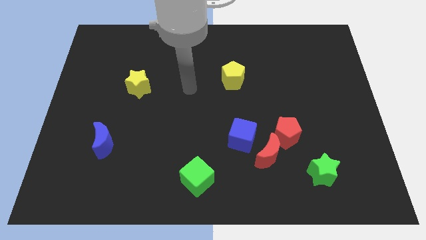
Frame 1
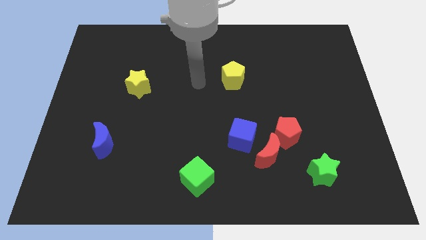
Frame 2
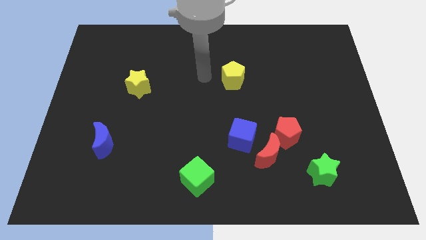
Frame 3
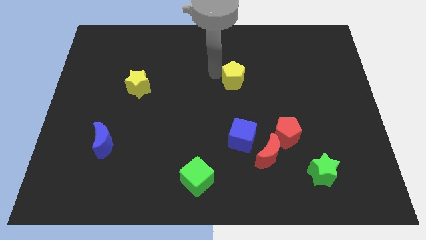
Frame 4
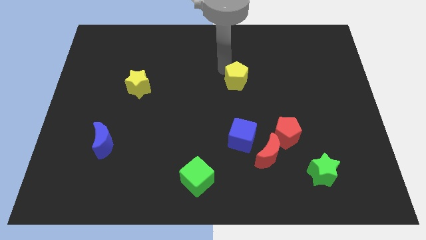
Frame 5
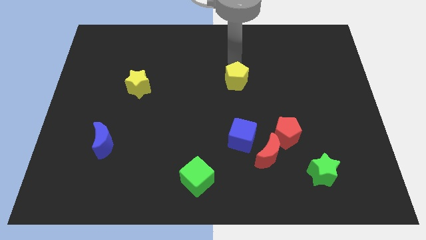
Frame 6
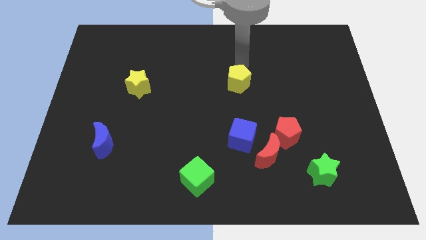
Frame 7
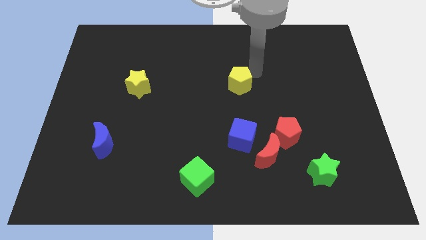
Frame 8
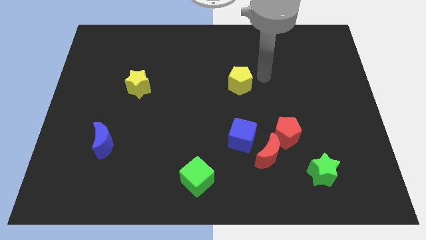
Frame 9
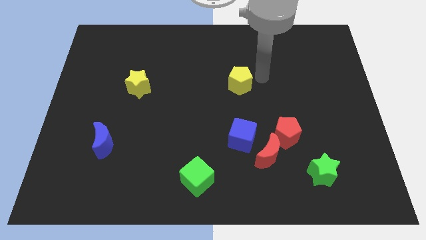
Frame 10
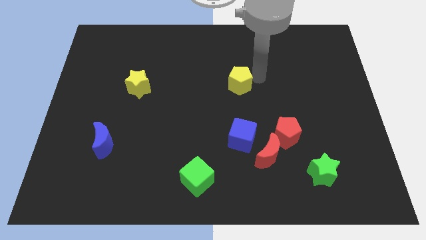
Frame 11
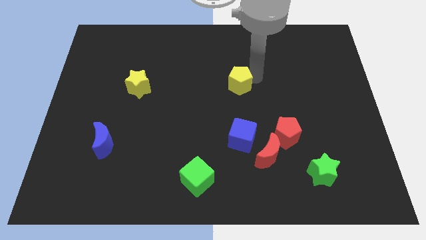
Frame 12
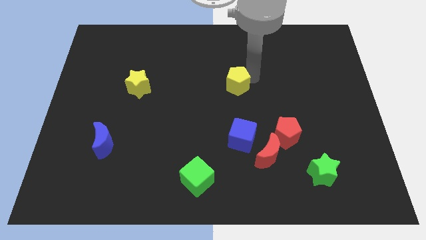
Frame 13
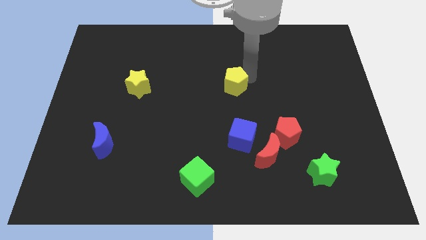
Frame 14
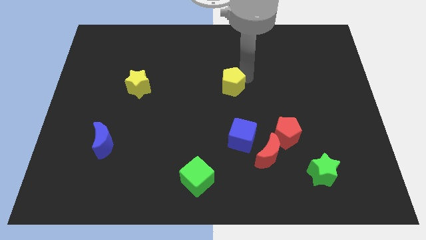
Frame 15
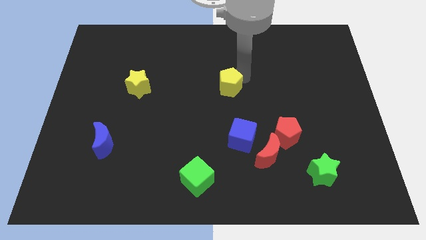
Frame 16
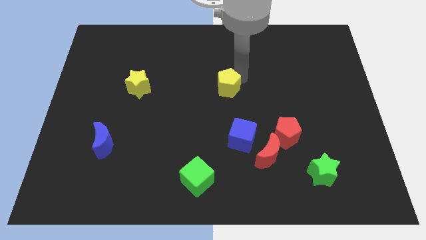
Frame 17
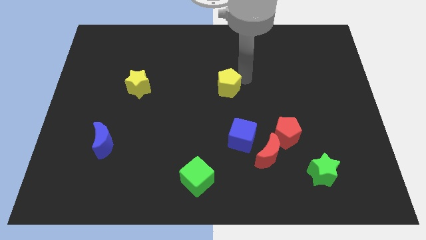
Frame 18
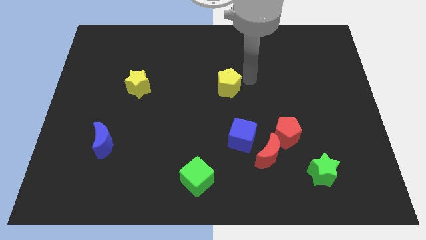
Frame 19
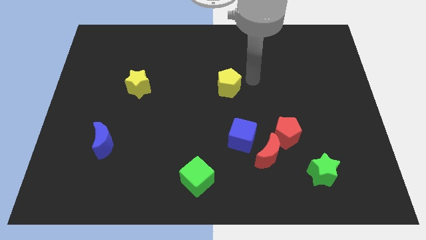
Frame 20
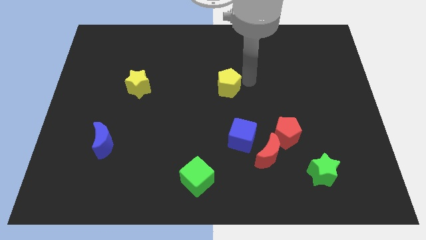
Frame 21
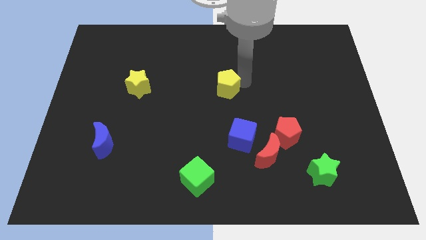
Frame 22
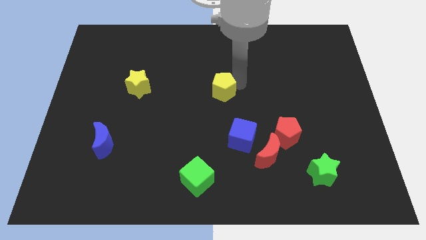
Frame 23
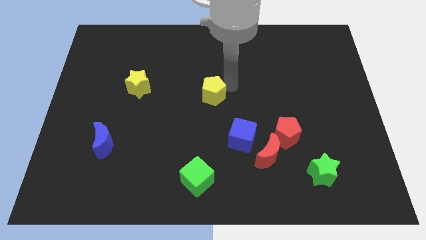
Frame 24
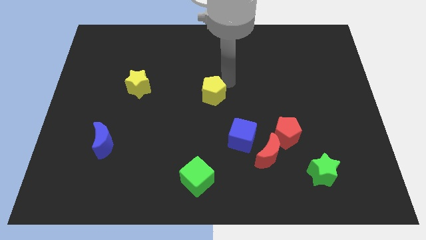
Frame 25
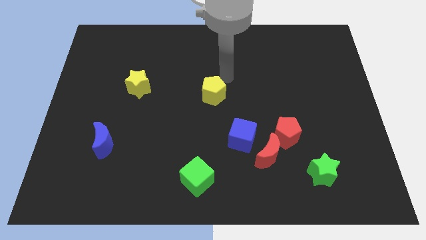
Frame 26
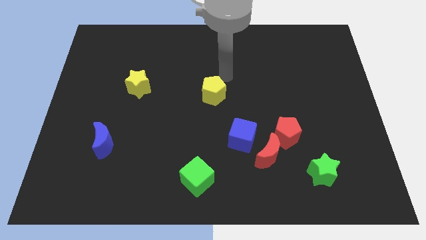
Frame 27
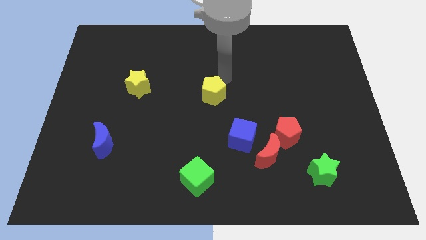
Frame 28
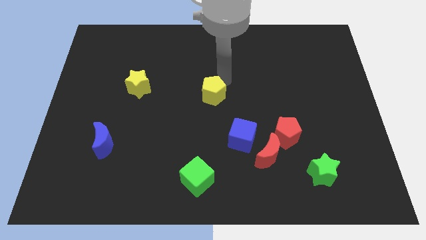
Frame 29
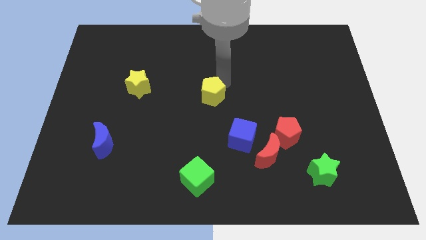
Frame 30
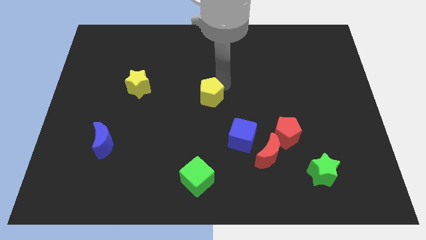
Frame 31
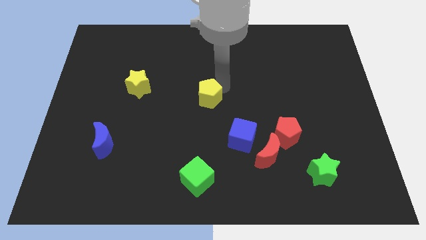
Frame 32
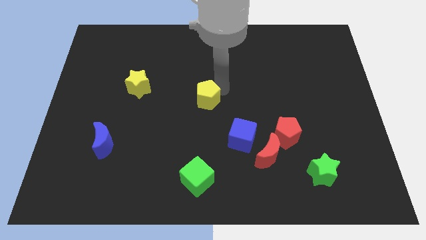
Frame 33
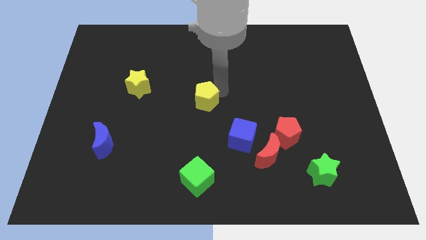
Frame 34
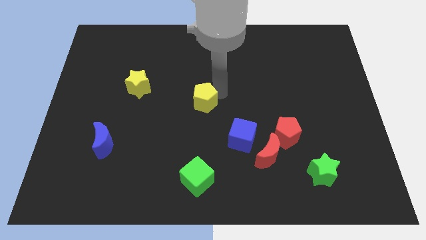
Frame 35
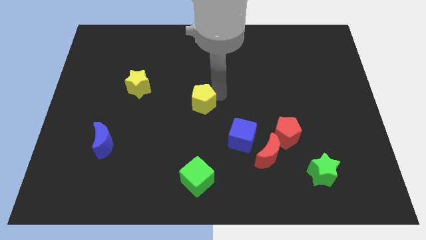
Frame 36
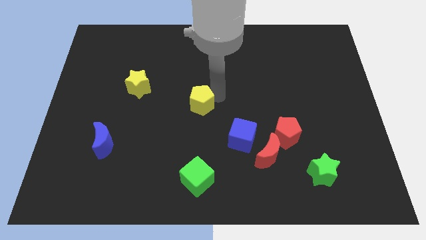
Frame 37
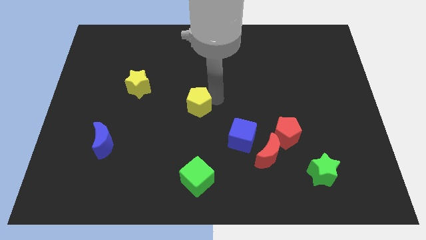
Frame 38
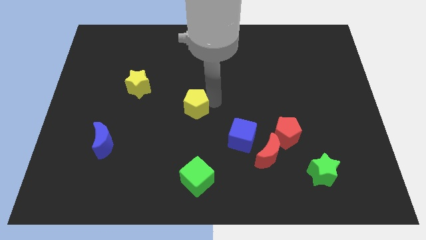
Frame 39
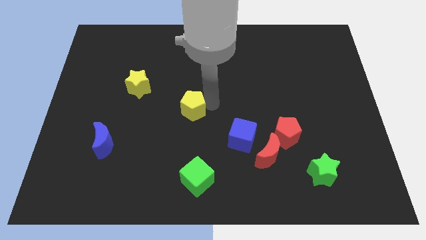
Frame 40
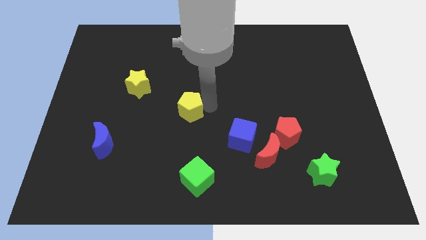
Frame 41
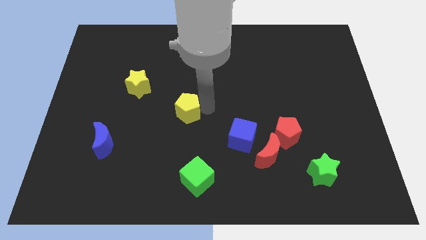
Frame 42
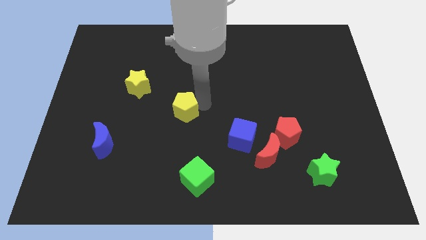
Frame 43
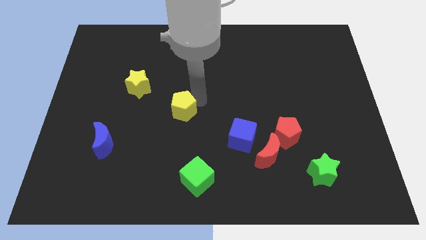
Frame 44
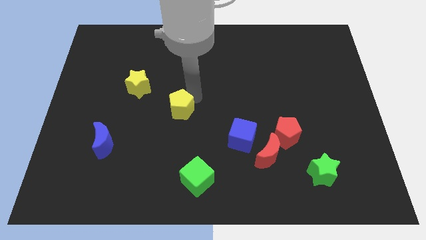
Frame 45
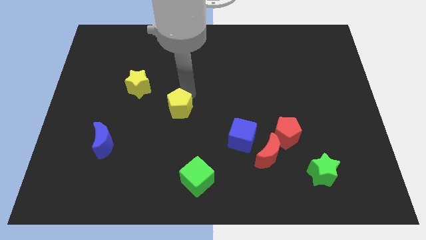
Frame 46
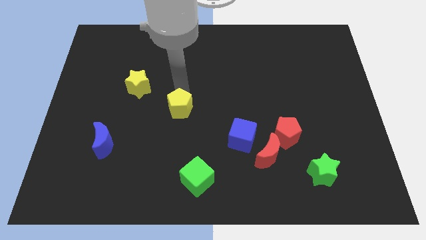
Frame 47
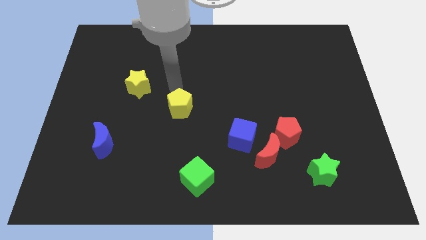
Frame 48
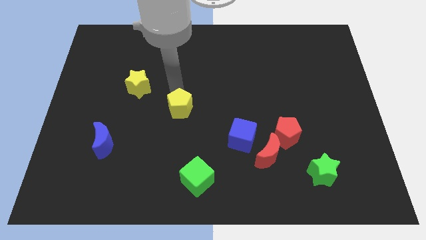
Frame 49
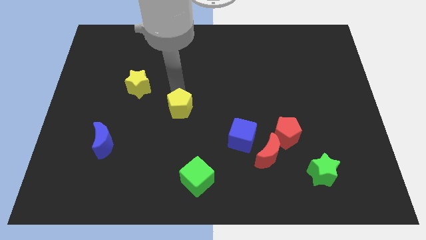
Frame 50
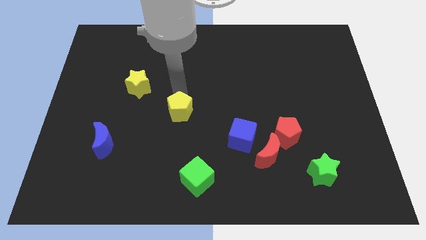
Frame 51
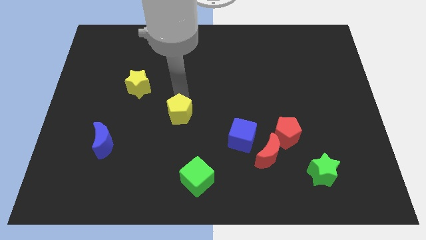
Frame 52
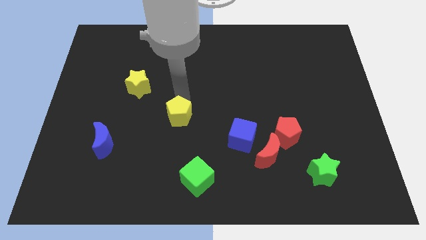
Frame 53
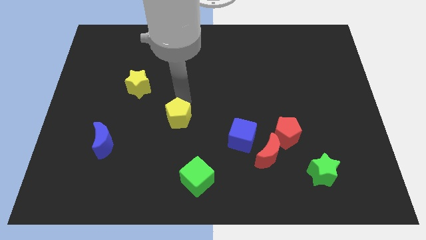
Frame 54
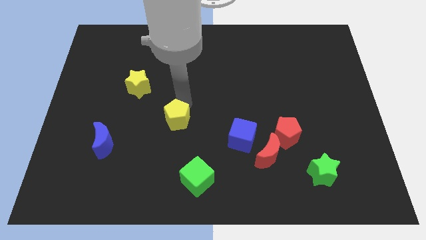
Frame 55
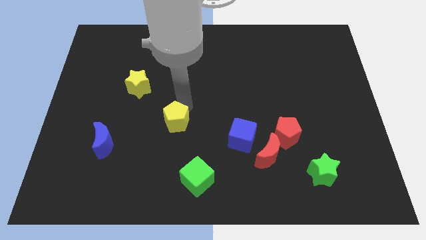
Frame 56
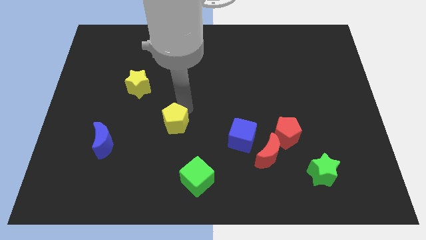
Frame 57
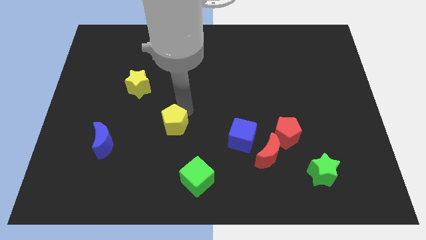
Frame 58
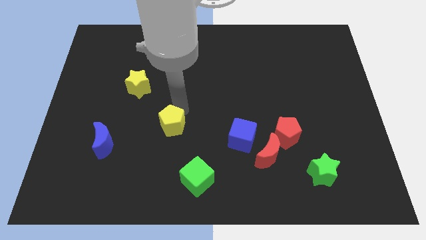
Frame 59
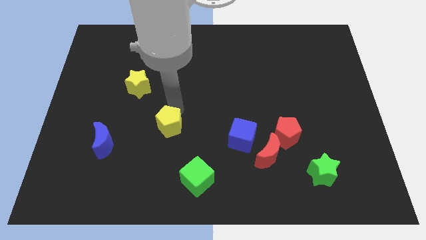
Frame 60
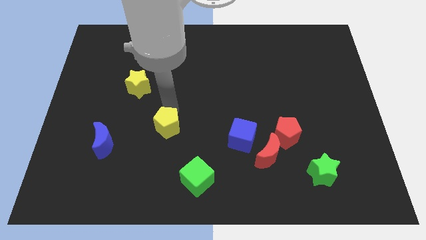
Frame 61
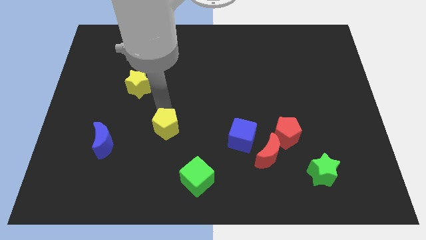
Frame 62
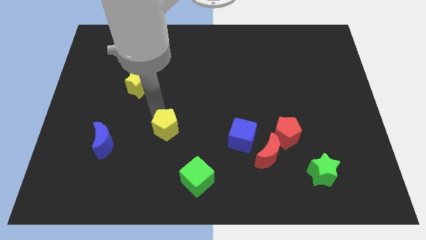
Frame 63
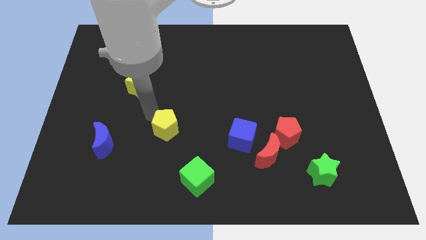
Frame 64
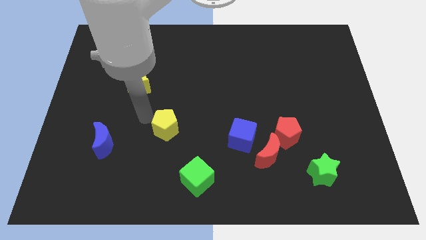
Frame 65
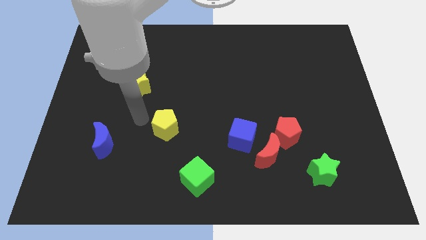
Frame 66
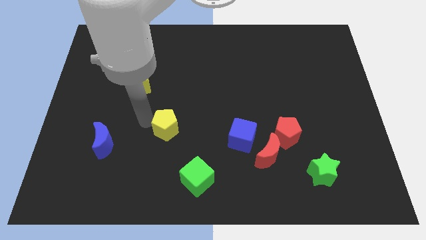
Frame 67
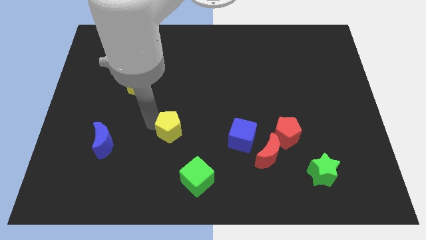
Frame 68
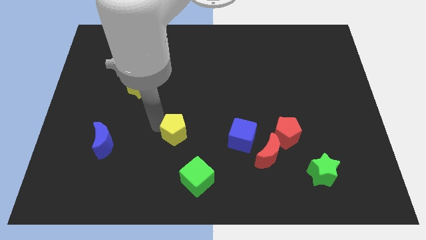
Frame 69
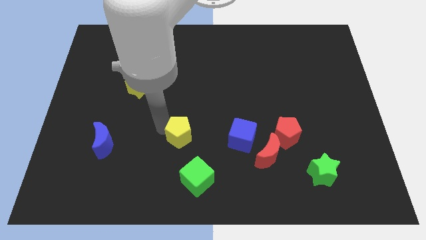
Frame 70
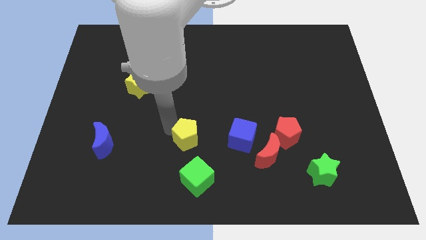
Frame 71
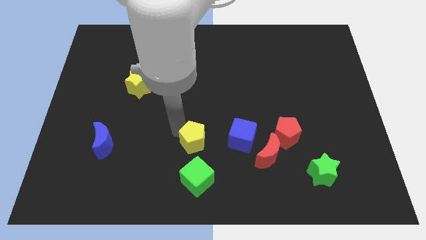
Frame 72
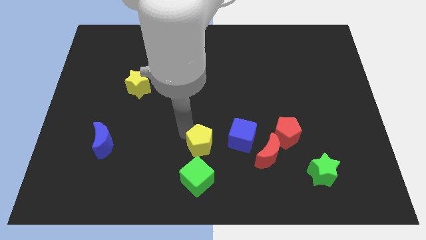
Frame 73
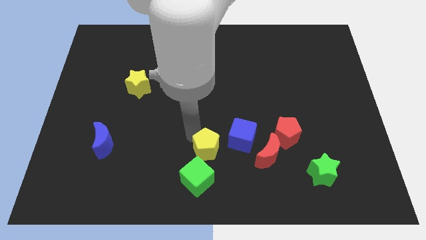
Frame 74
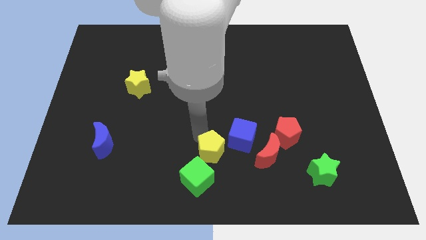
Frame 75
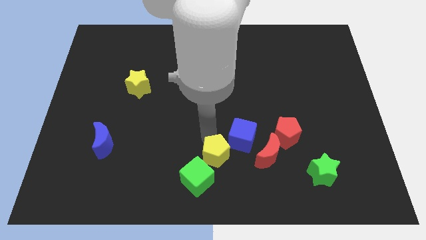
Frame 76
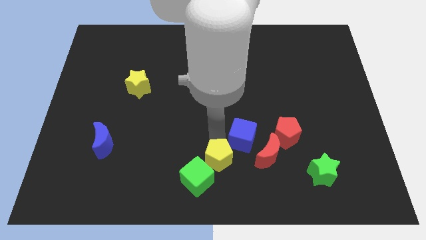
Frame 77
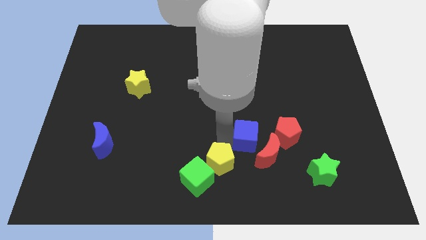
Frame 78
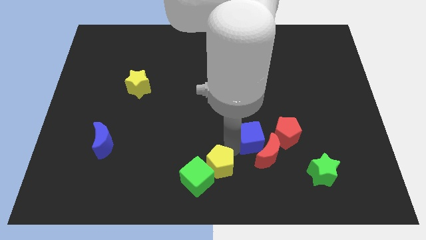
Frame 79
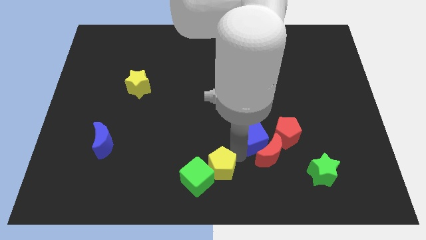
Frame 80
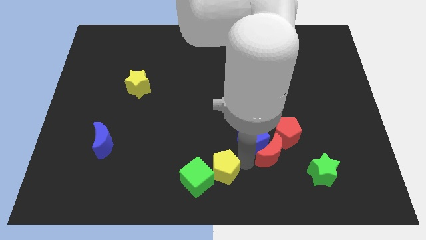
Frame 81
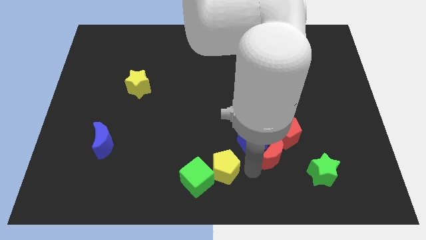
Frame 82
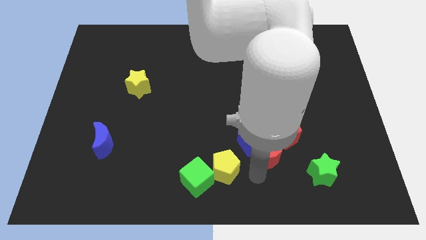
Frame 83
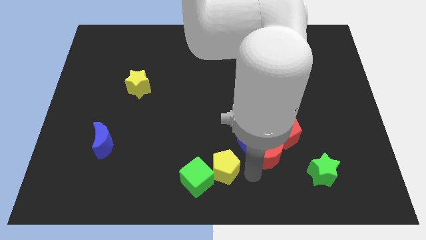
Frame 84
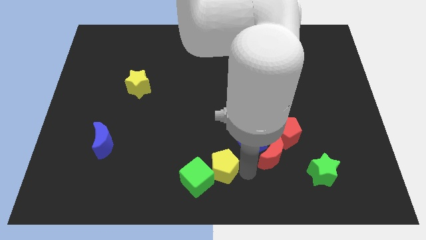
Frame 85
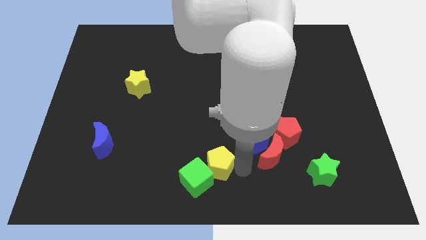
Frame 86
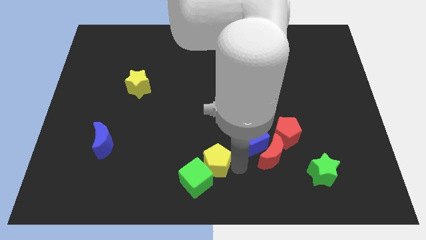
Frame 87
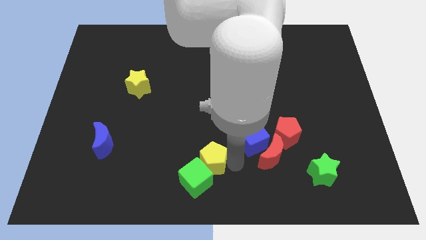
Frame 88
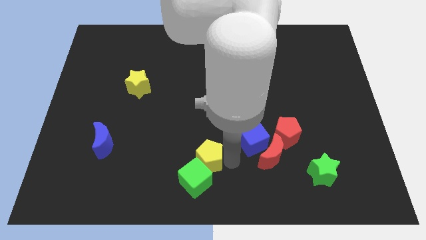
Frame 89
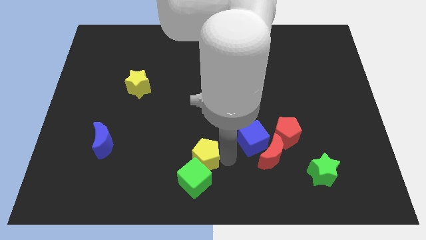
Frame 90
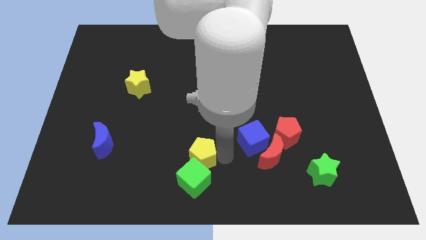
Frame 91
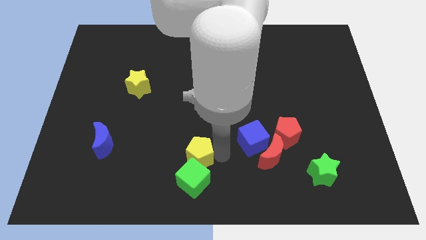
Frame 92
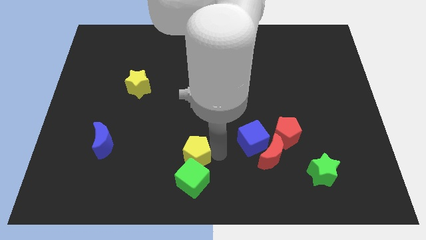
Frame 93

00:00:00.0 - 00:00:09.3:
push the yellow pentagon to the top left side of the green cube
